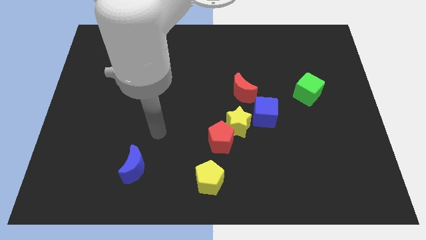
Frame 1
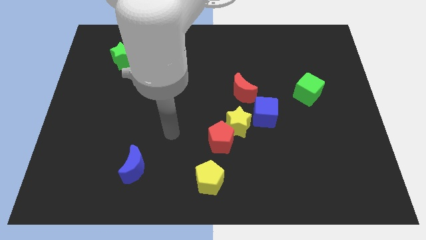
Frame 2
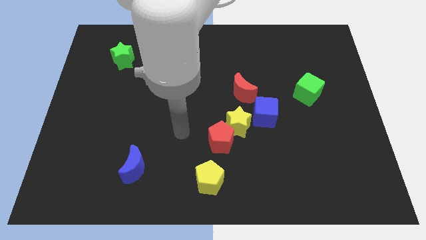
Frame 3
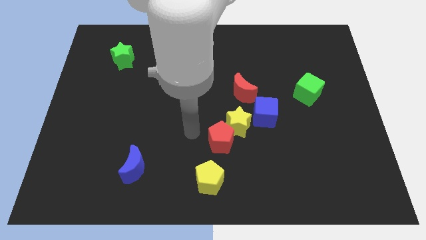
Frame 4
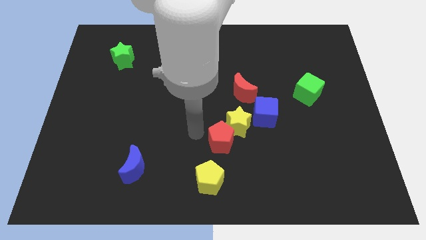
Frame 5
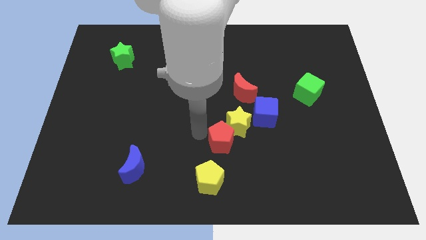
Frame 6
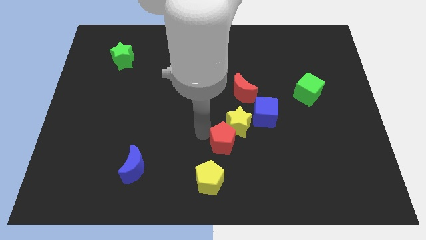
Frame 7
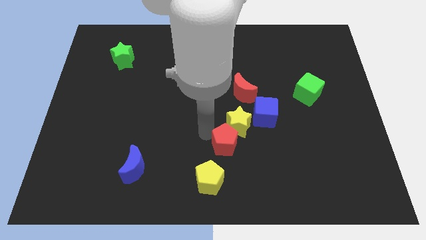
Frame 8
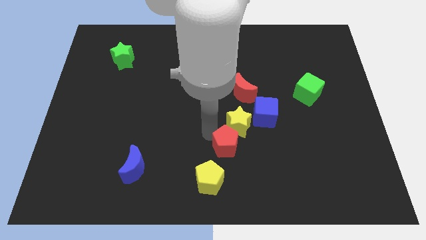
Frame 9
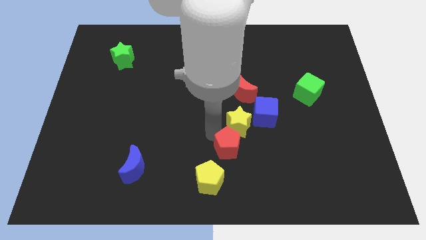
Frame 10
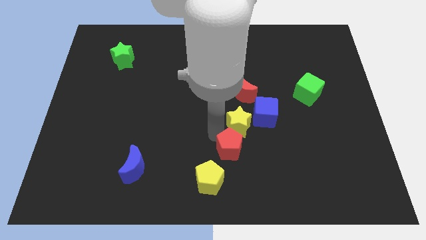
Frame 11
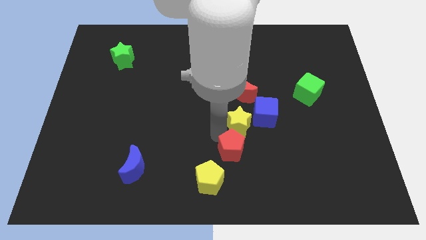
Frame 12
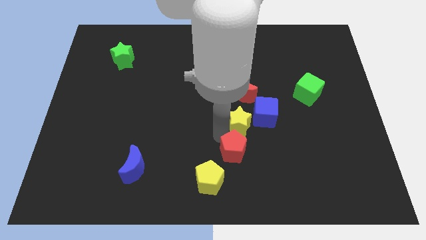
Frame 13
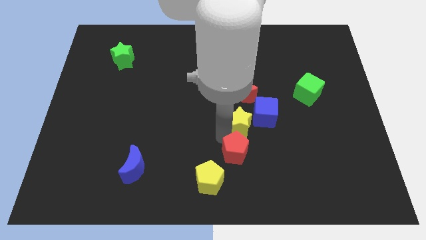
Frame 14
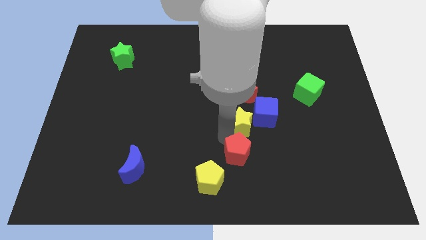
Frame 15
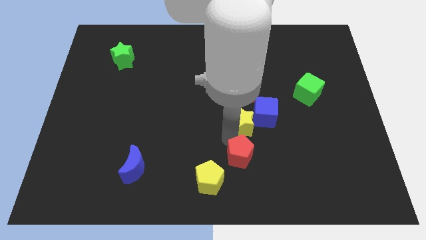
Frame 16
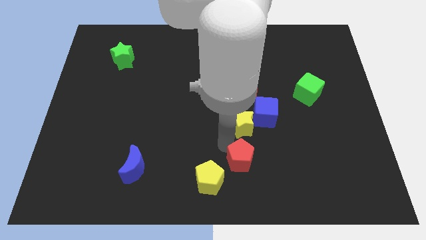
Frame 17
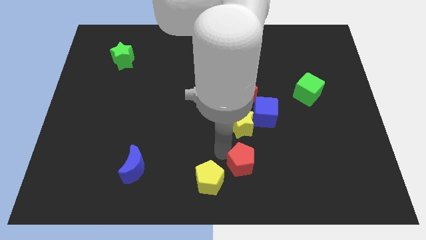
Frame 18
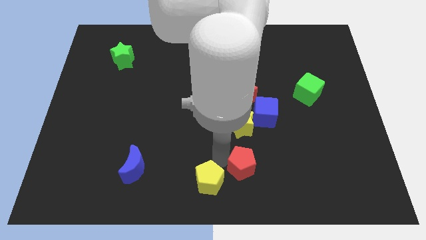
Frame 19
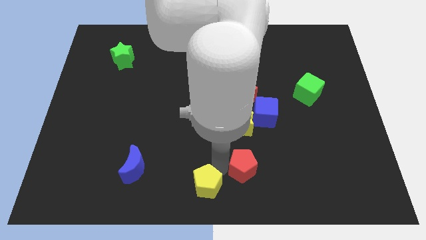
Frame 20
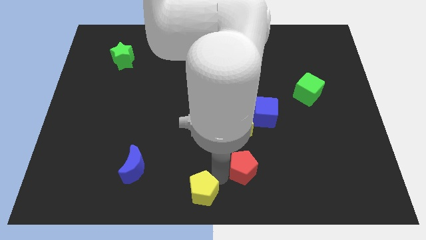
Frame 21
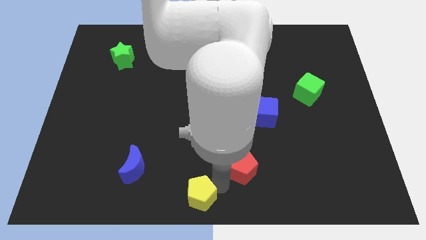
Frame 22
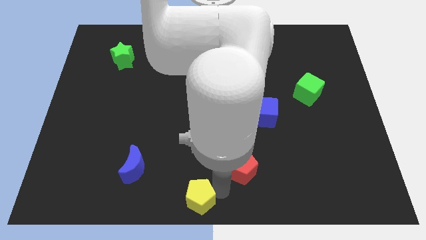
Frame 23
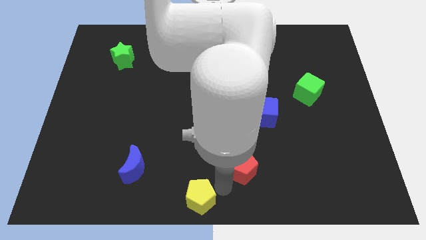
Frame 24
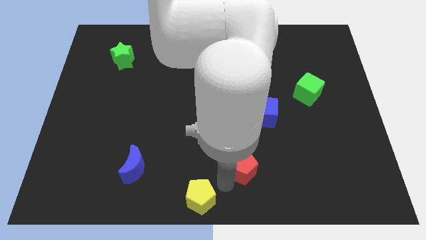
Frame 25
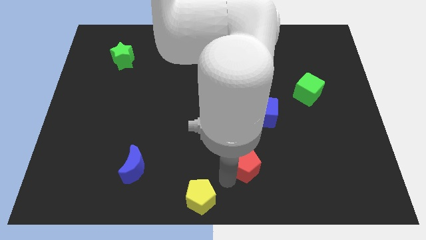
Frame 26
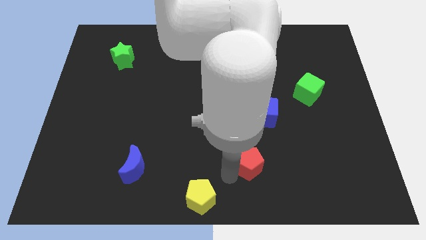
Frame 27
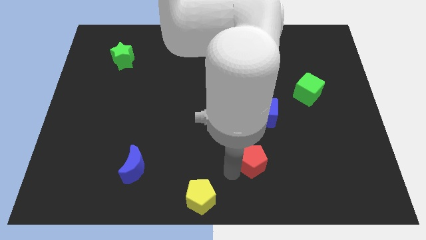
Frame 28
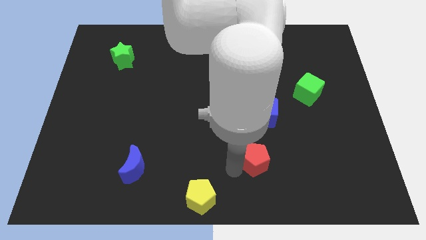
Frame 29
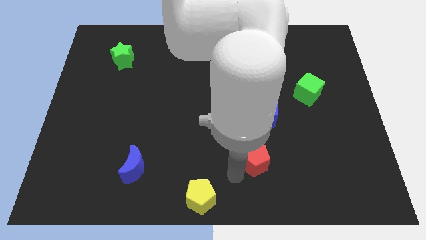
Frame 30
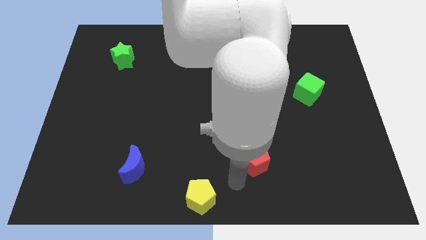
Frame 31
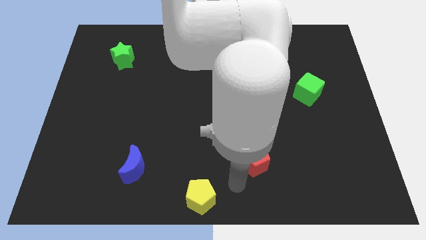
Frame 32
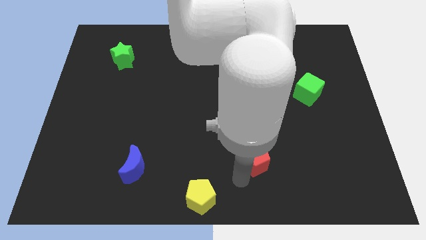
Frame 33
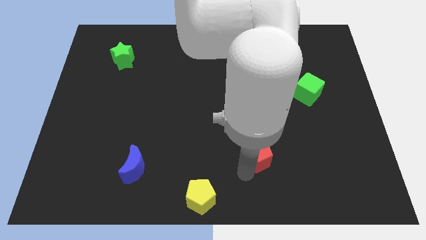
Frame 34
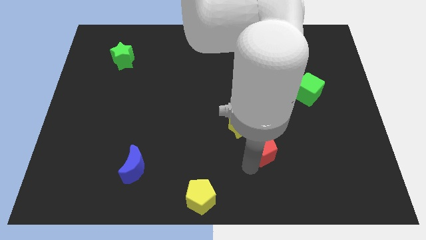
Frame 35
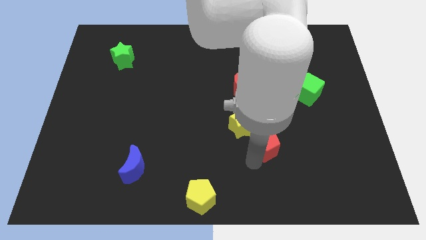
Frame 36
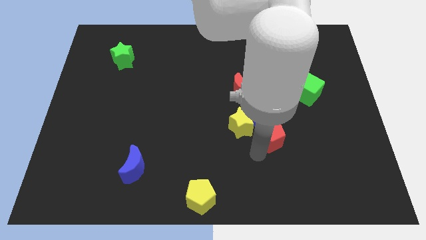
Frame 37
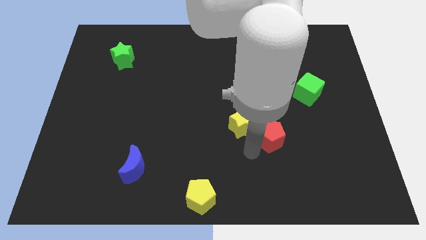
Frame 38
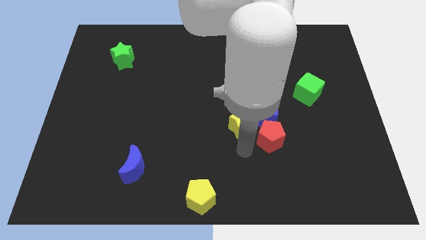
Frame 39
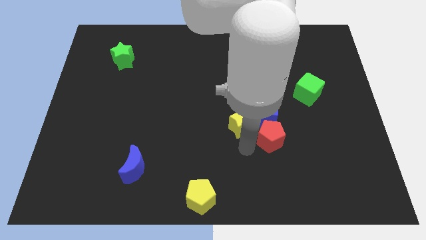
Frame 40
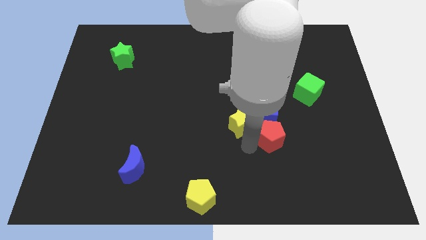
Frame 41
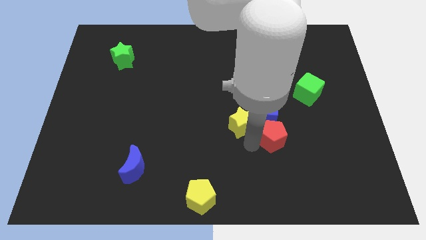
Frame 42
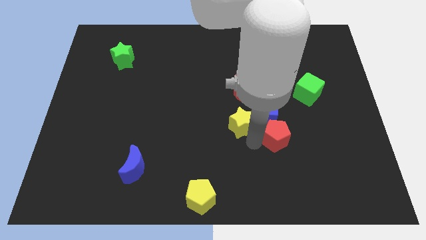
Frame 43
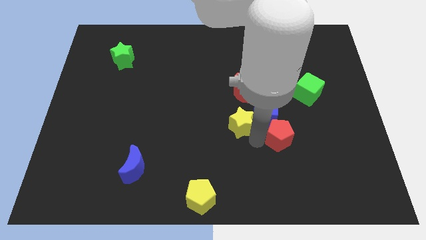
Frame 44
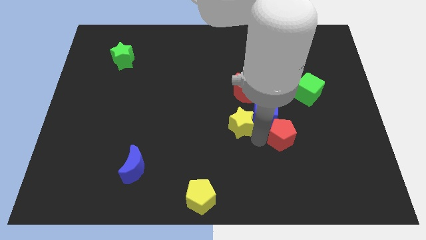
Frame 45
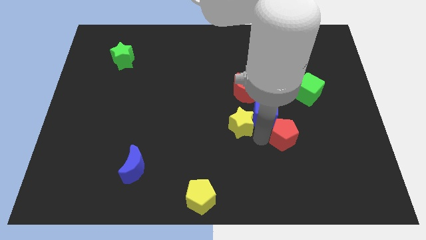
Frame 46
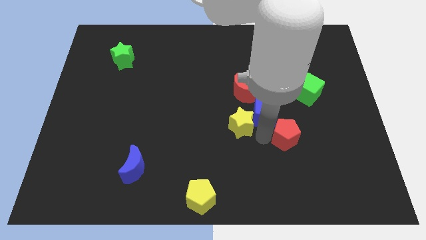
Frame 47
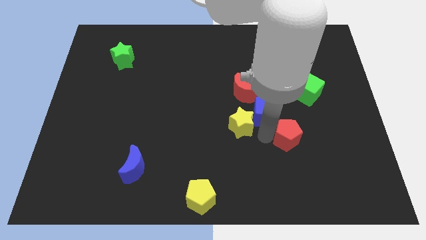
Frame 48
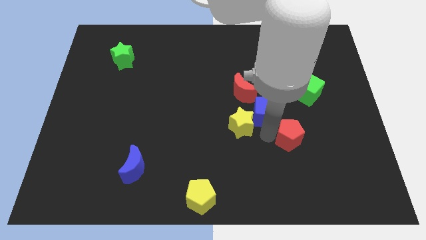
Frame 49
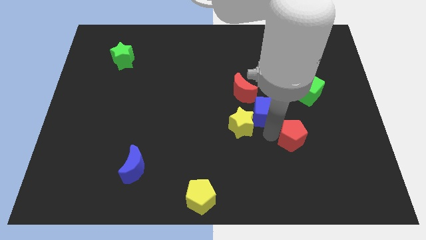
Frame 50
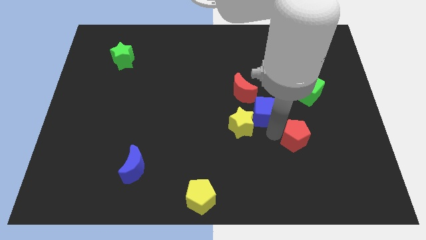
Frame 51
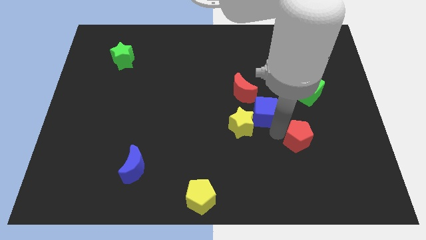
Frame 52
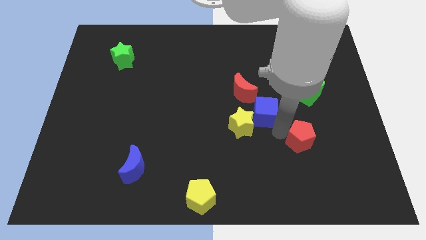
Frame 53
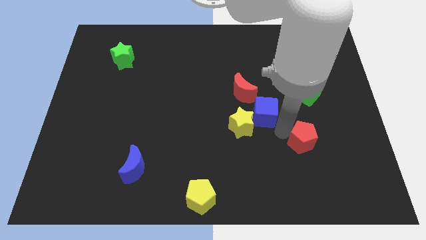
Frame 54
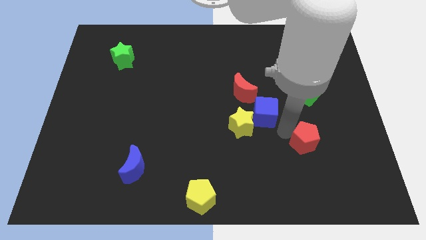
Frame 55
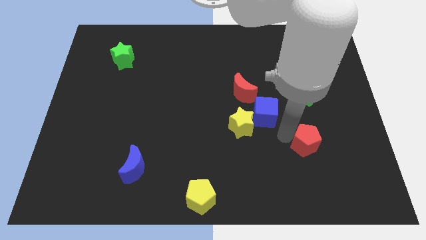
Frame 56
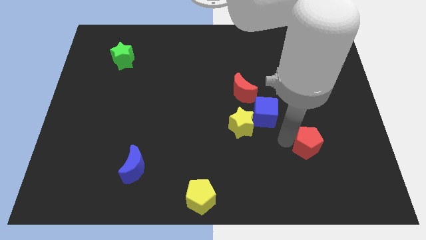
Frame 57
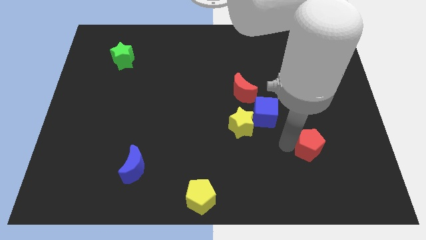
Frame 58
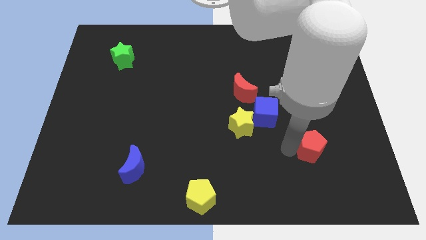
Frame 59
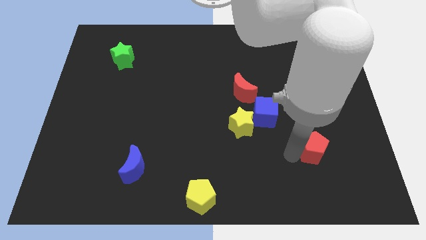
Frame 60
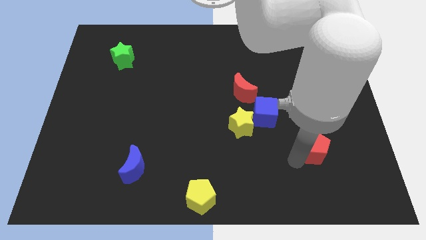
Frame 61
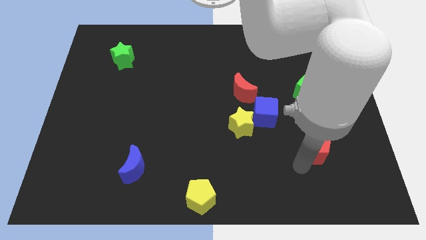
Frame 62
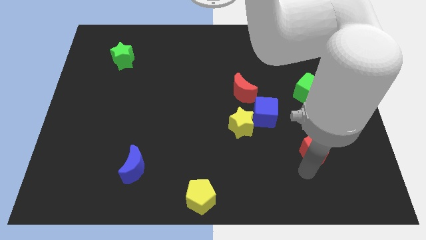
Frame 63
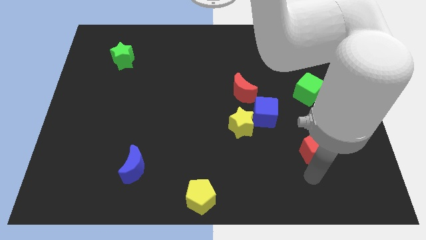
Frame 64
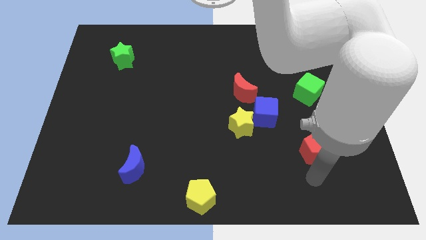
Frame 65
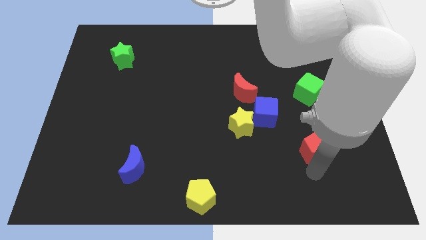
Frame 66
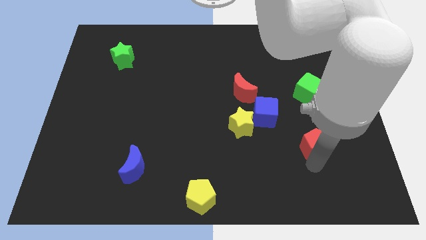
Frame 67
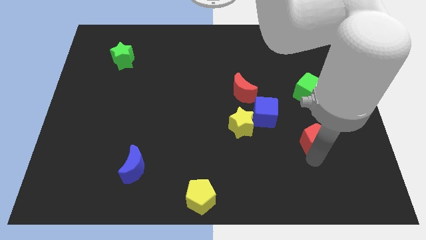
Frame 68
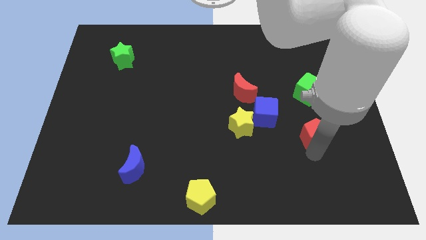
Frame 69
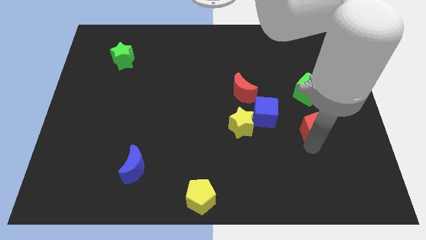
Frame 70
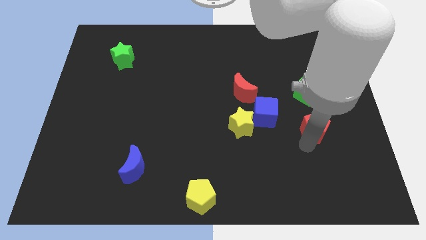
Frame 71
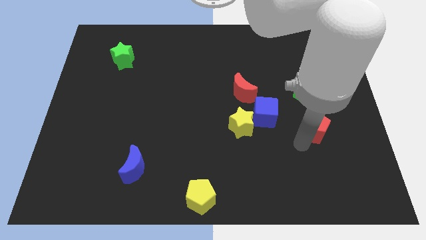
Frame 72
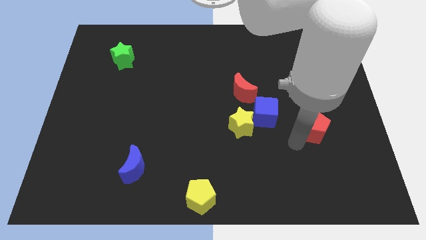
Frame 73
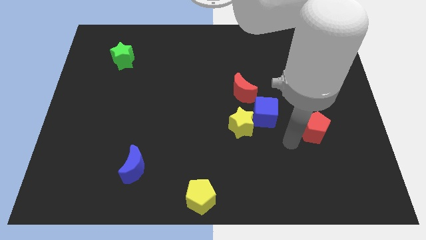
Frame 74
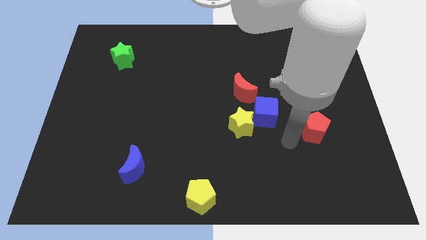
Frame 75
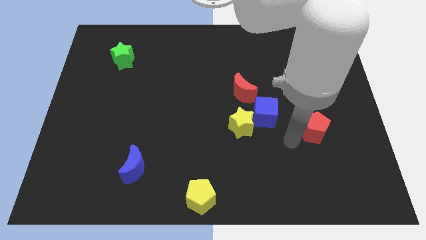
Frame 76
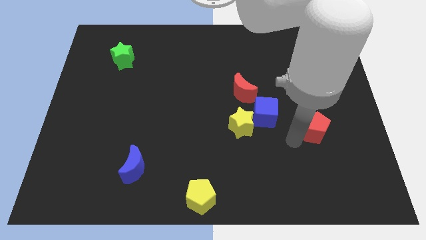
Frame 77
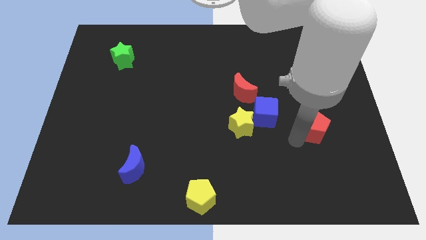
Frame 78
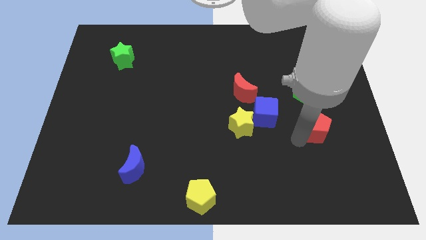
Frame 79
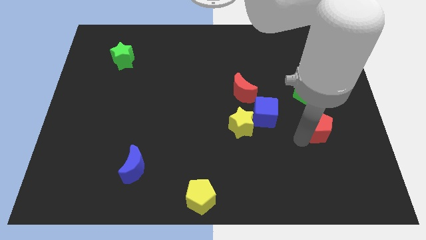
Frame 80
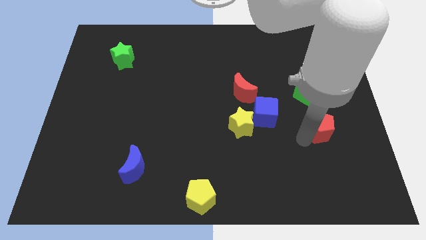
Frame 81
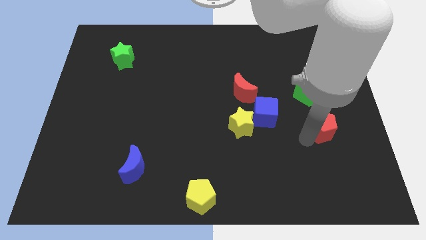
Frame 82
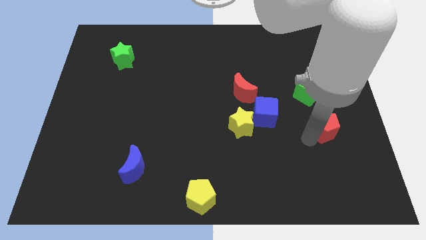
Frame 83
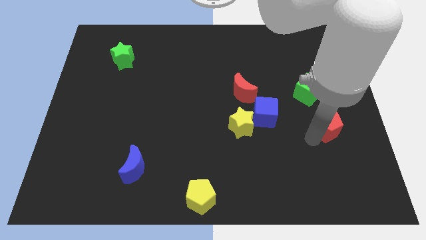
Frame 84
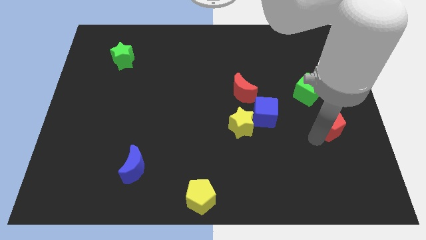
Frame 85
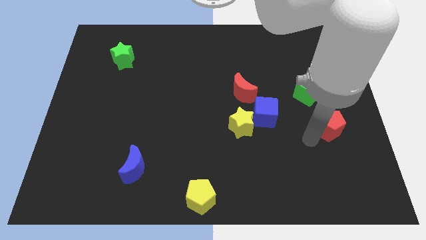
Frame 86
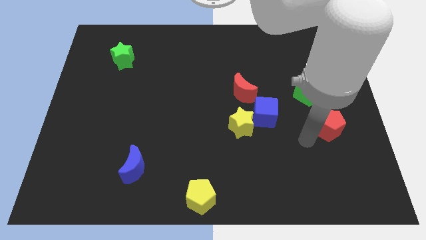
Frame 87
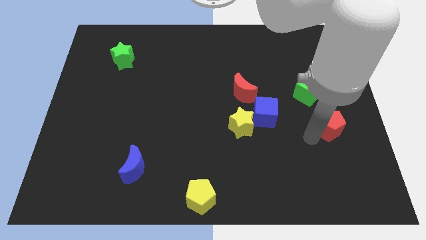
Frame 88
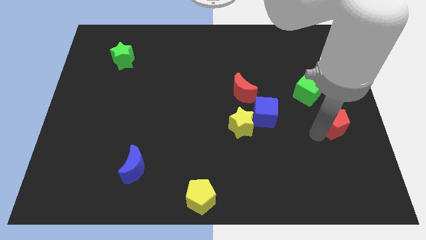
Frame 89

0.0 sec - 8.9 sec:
slide the red pentagon to the center right
